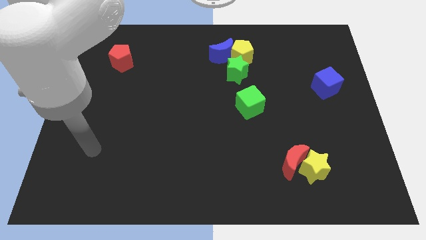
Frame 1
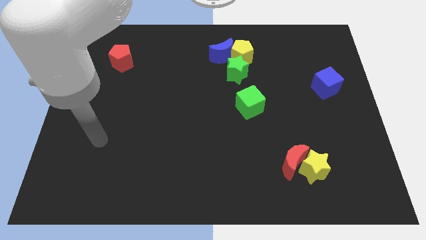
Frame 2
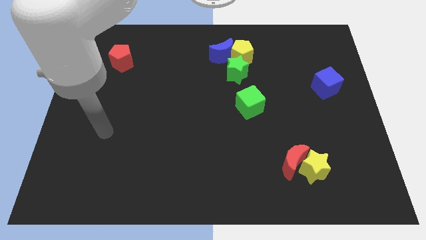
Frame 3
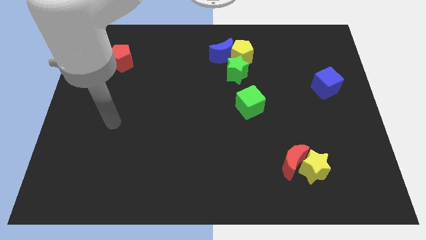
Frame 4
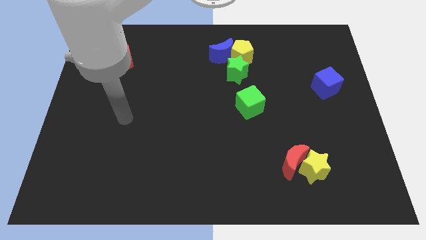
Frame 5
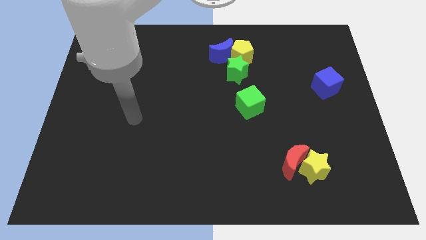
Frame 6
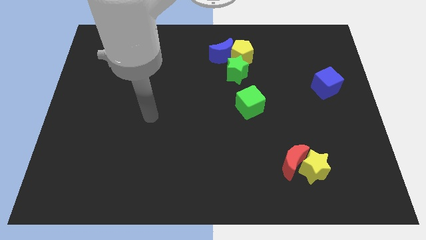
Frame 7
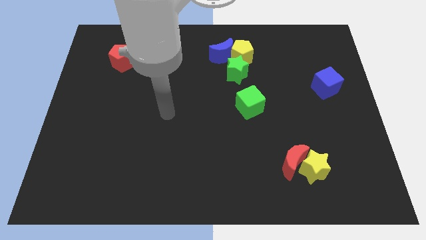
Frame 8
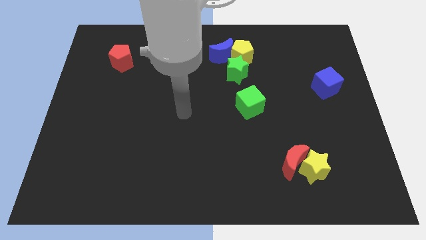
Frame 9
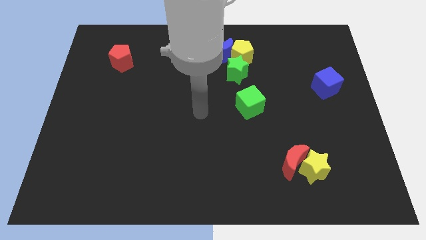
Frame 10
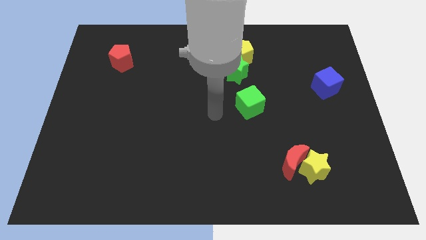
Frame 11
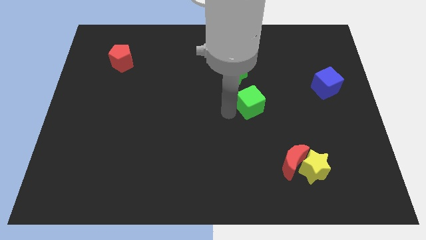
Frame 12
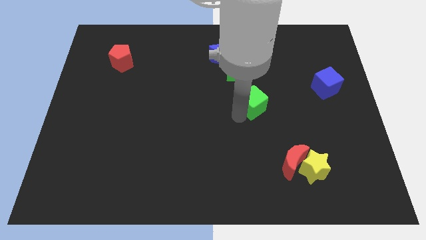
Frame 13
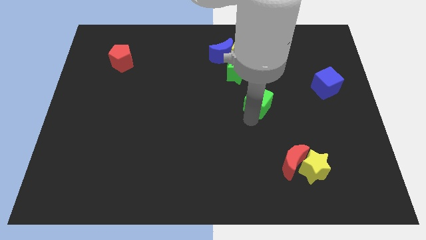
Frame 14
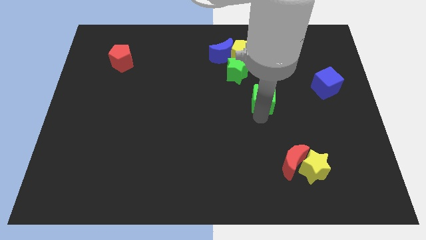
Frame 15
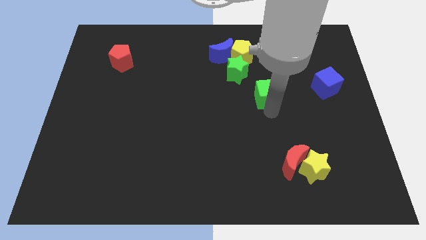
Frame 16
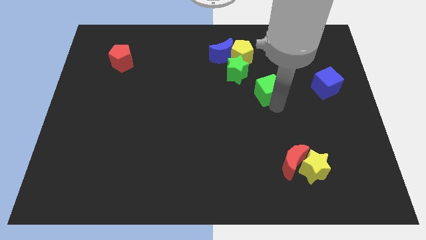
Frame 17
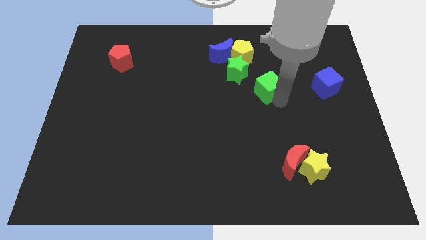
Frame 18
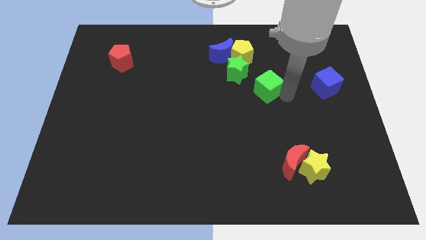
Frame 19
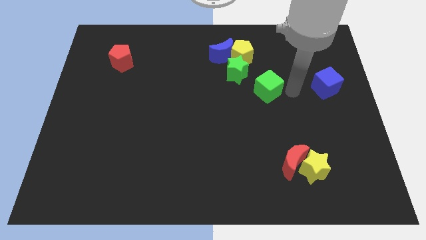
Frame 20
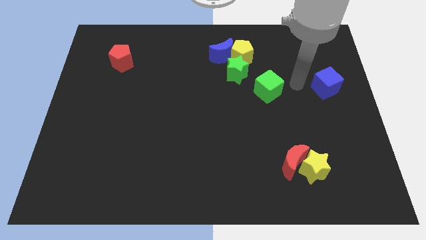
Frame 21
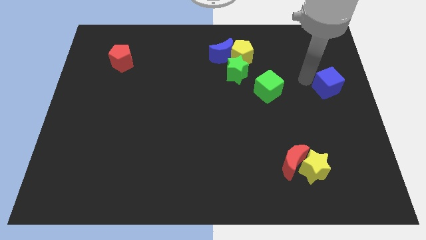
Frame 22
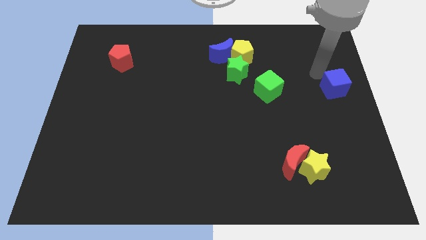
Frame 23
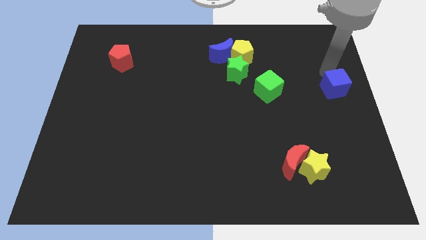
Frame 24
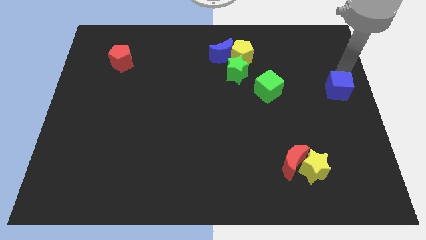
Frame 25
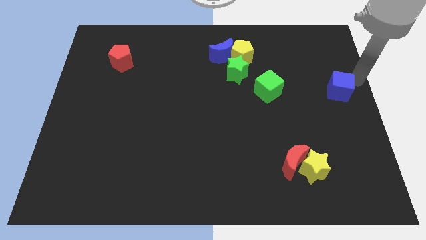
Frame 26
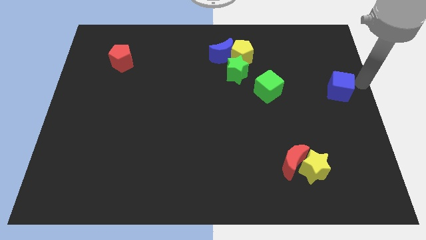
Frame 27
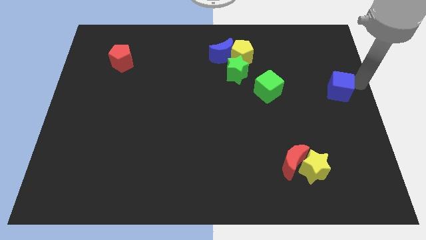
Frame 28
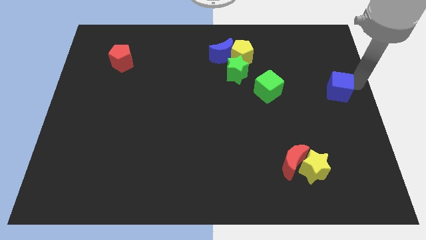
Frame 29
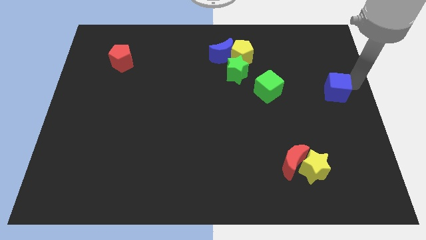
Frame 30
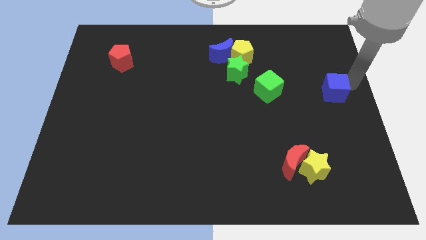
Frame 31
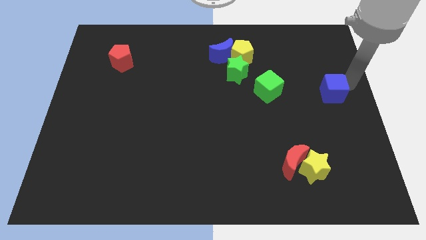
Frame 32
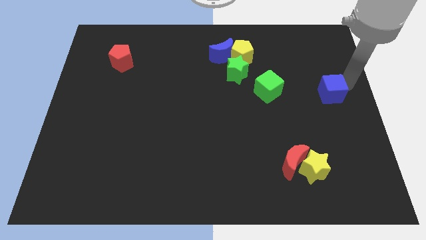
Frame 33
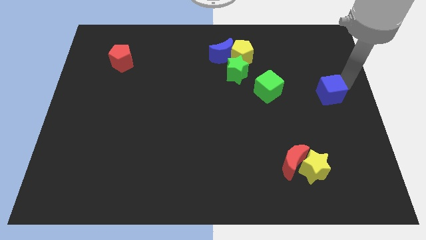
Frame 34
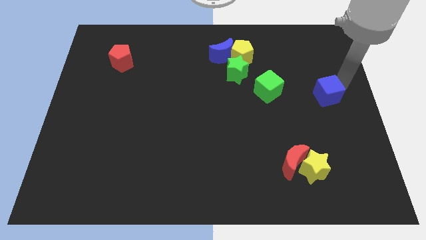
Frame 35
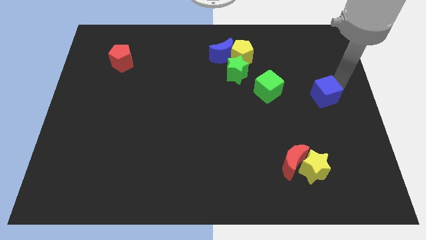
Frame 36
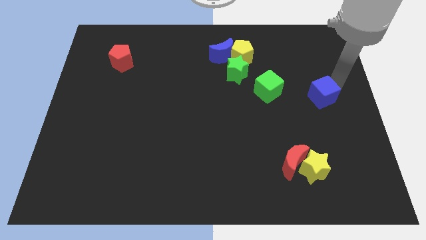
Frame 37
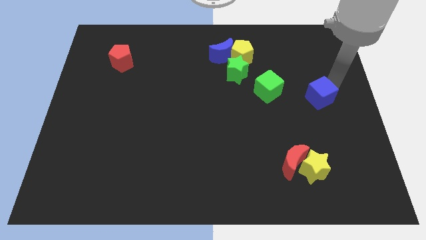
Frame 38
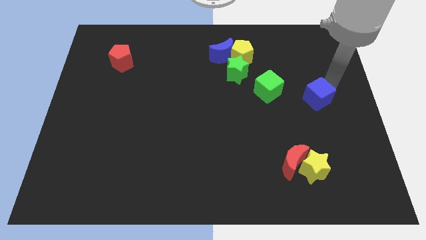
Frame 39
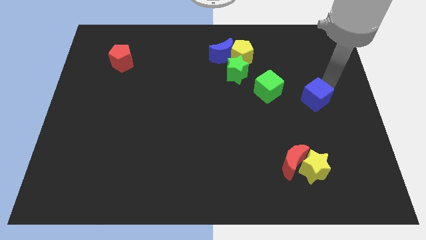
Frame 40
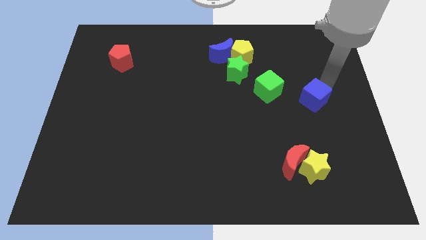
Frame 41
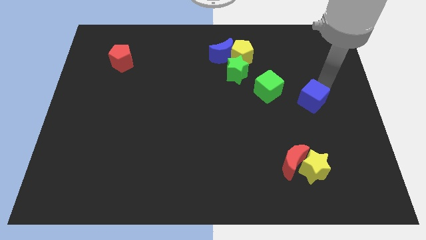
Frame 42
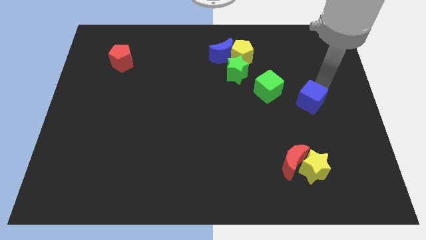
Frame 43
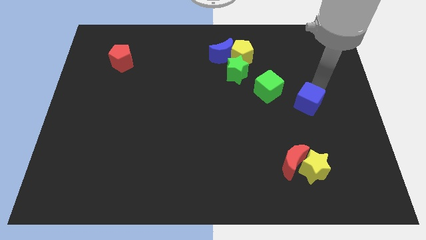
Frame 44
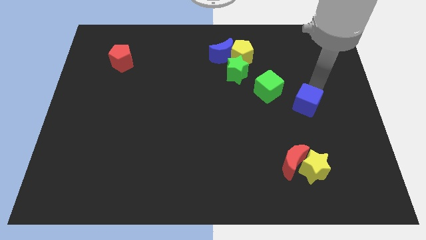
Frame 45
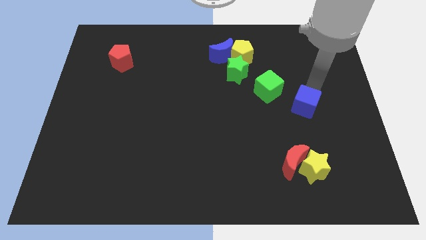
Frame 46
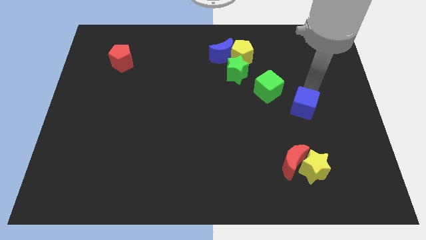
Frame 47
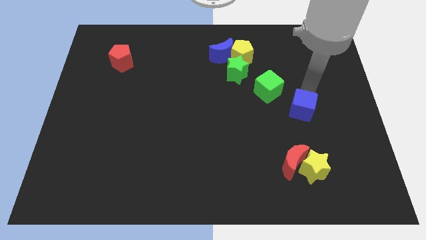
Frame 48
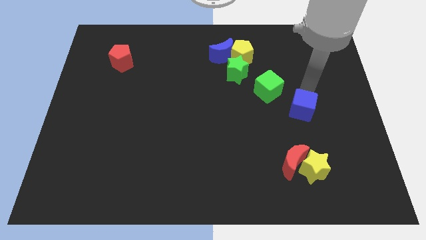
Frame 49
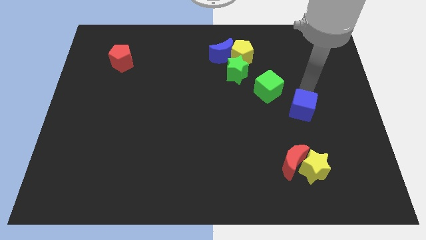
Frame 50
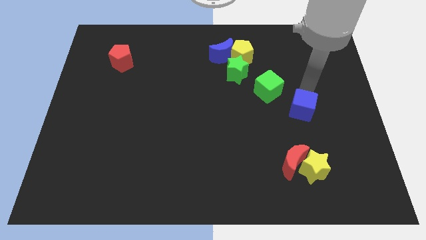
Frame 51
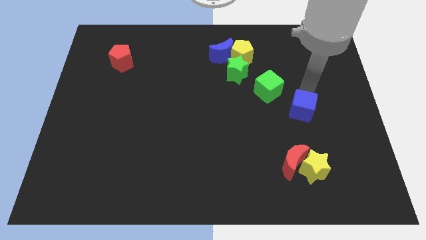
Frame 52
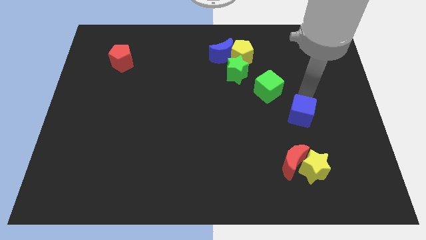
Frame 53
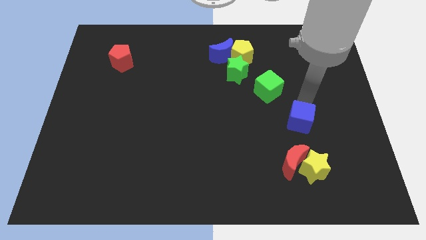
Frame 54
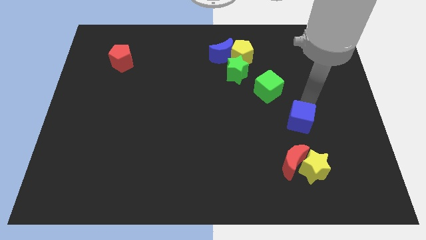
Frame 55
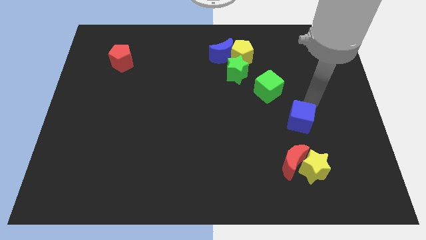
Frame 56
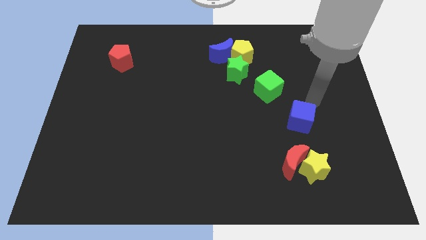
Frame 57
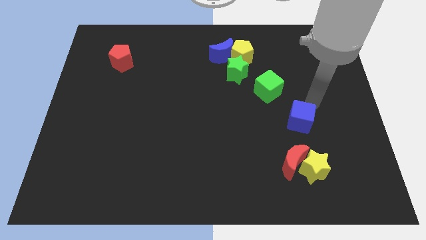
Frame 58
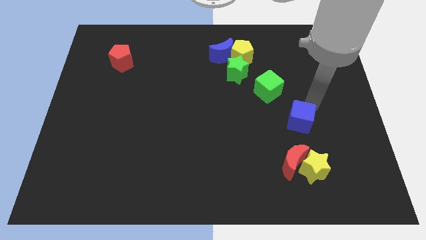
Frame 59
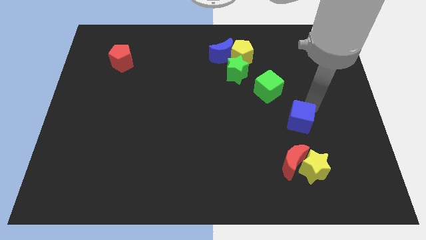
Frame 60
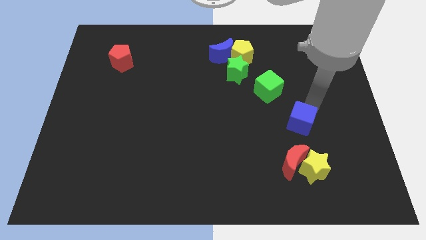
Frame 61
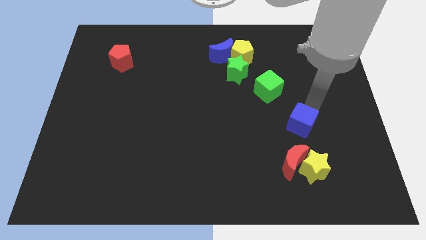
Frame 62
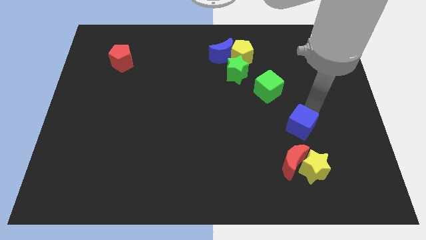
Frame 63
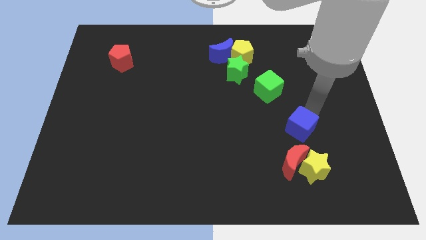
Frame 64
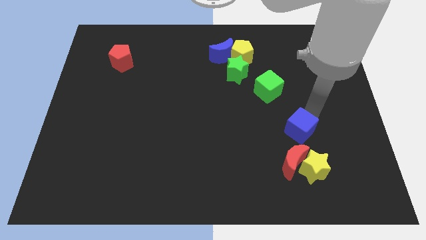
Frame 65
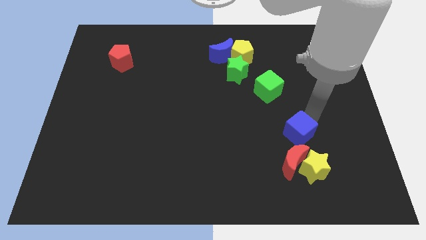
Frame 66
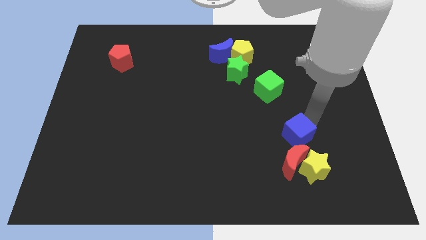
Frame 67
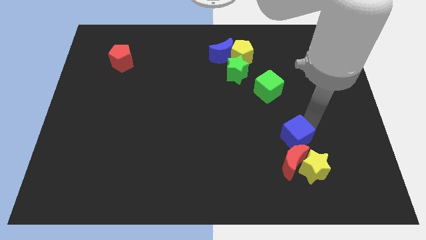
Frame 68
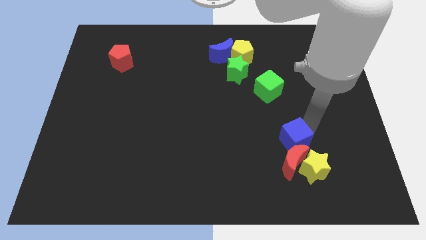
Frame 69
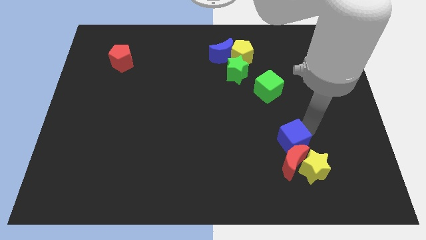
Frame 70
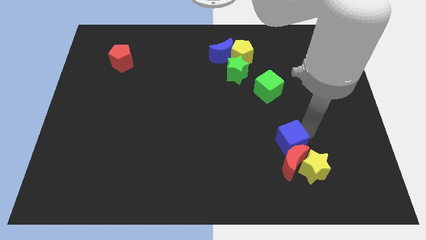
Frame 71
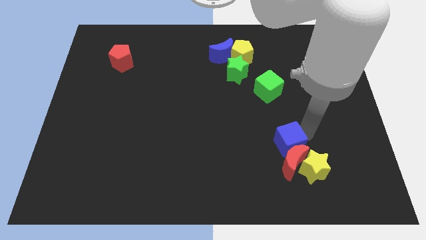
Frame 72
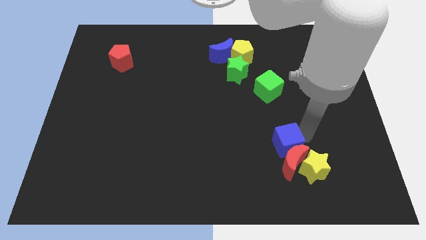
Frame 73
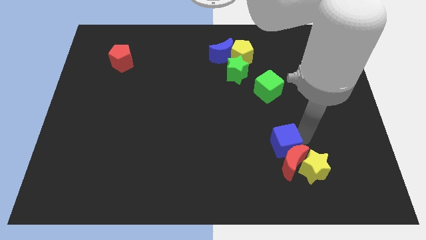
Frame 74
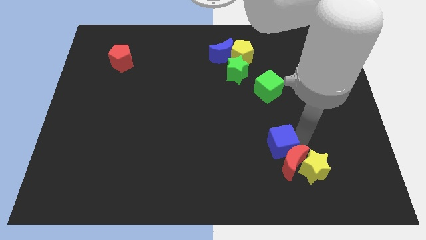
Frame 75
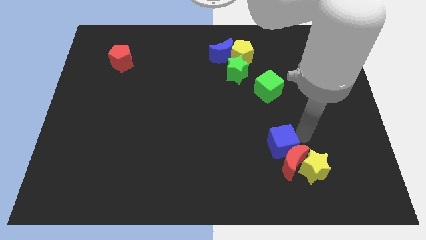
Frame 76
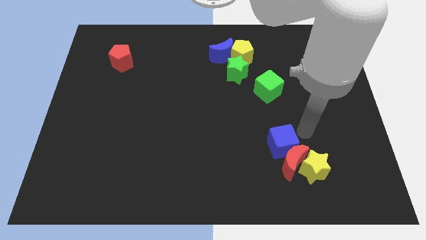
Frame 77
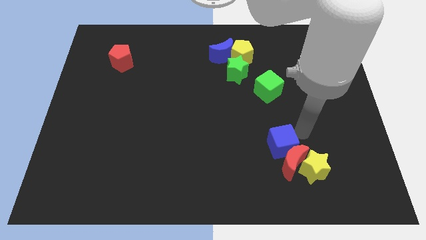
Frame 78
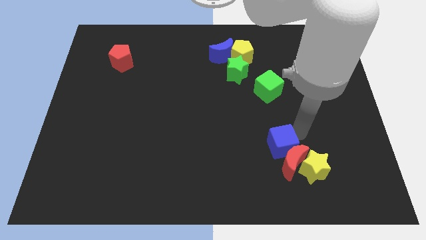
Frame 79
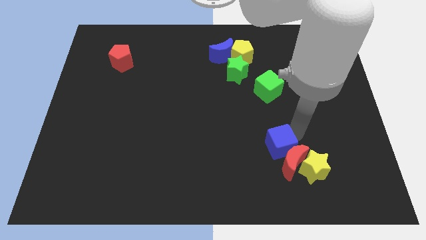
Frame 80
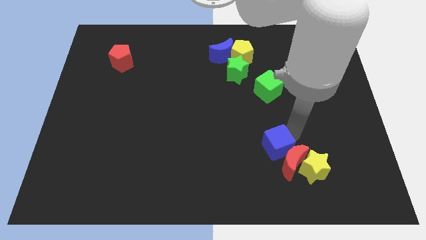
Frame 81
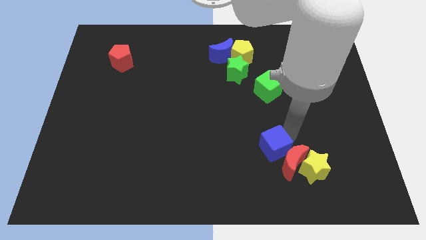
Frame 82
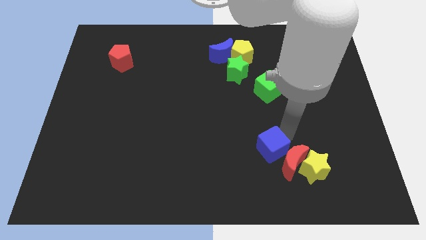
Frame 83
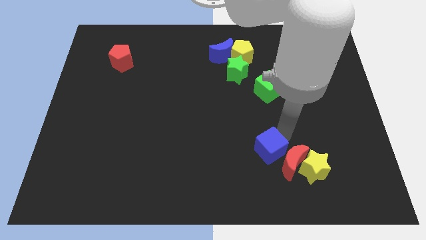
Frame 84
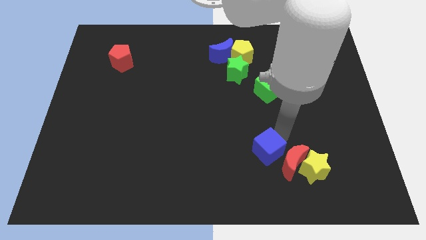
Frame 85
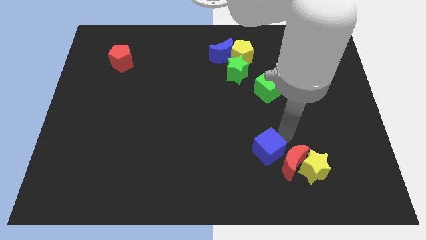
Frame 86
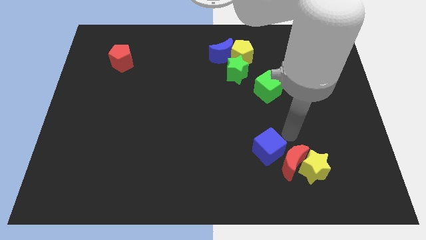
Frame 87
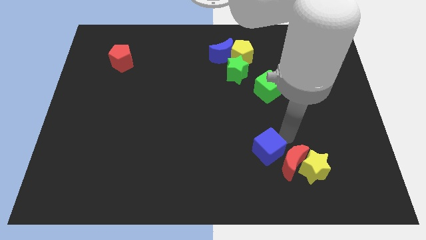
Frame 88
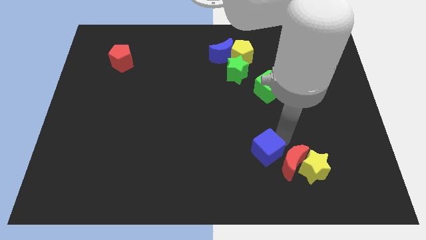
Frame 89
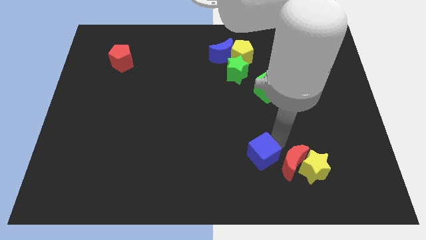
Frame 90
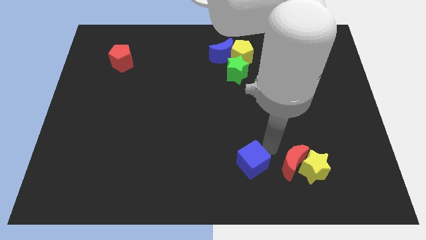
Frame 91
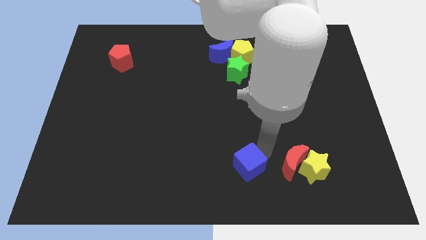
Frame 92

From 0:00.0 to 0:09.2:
push the blue cube to the bottom
